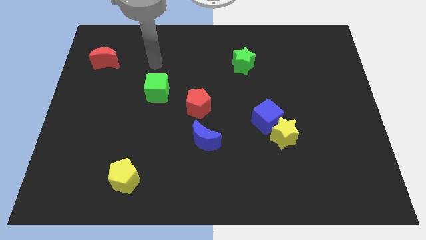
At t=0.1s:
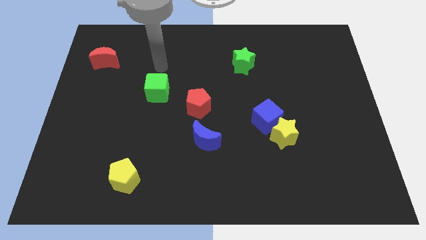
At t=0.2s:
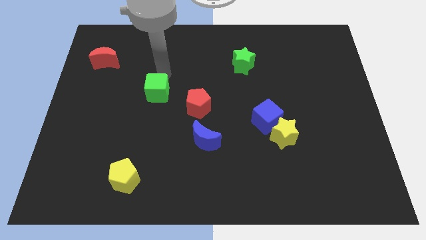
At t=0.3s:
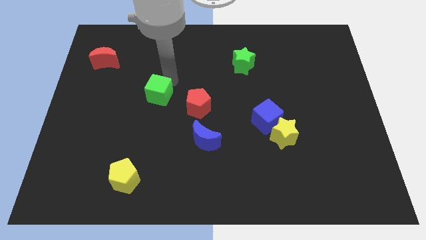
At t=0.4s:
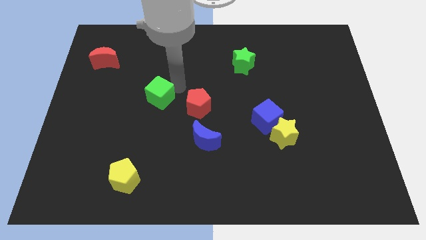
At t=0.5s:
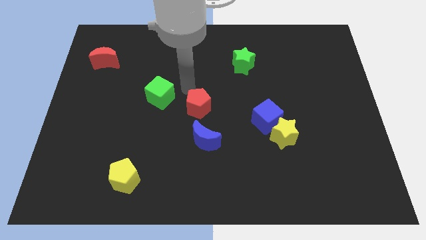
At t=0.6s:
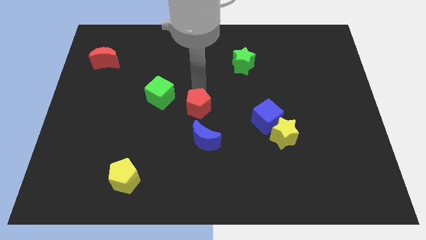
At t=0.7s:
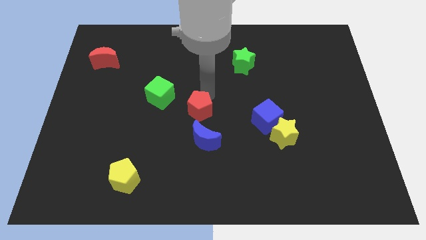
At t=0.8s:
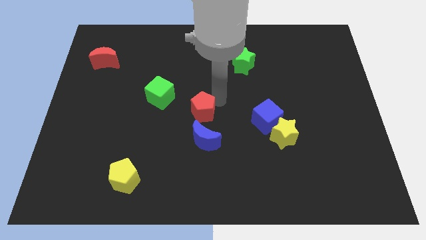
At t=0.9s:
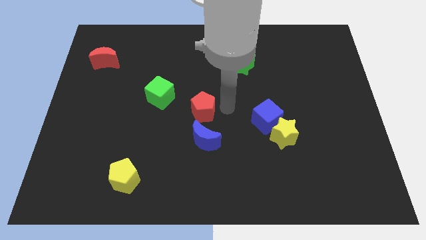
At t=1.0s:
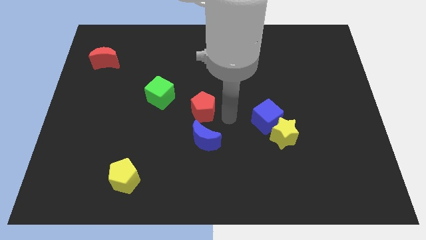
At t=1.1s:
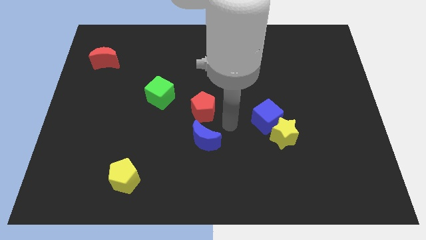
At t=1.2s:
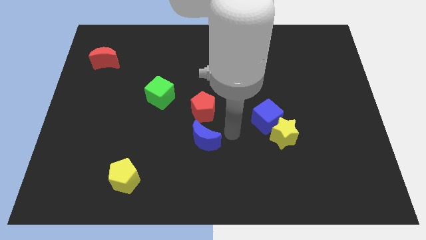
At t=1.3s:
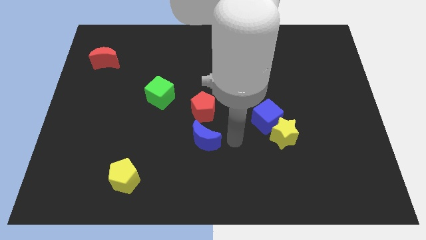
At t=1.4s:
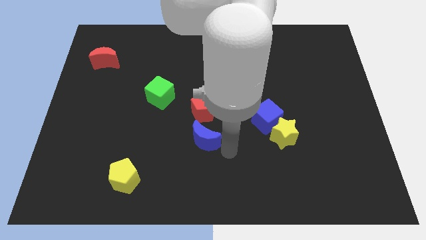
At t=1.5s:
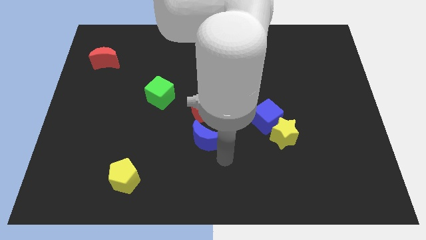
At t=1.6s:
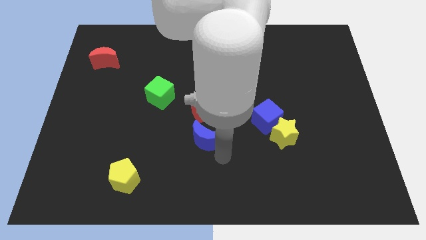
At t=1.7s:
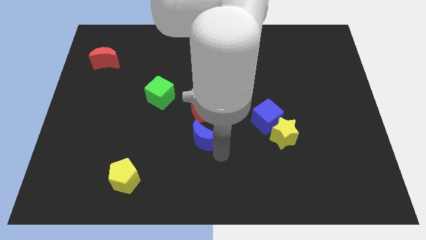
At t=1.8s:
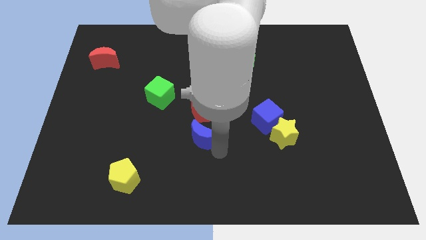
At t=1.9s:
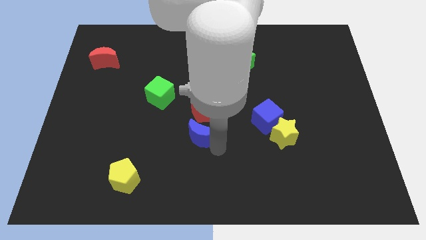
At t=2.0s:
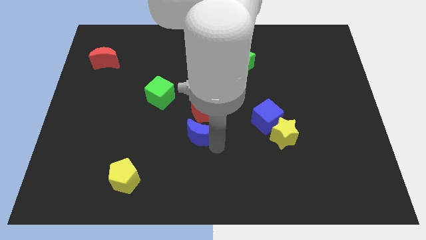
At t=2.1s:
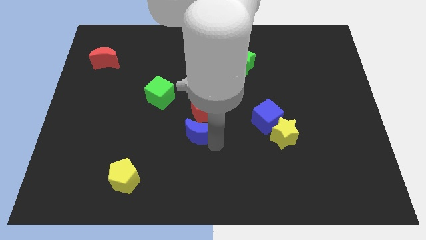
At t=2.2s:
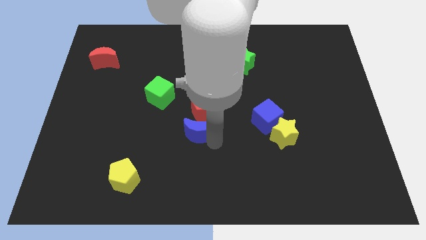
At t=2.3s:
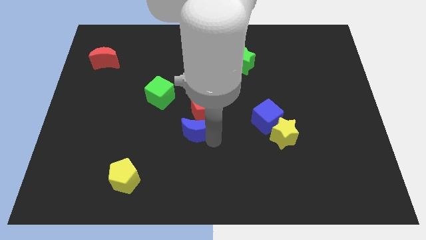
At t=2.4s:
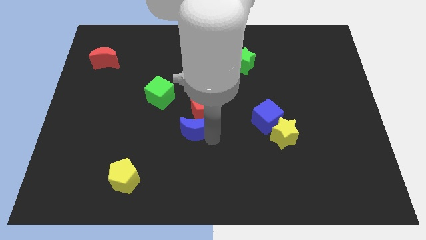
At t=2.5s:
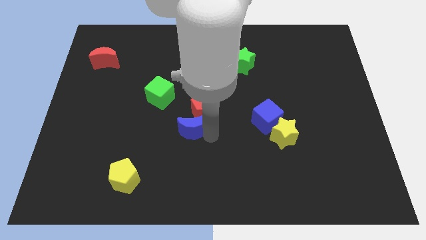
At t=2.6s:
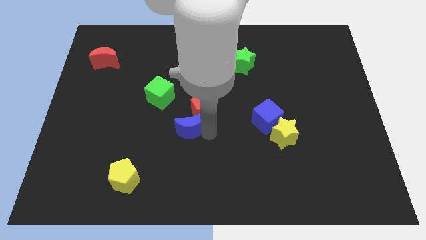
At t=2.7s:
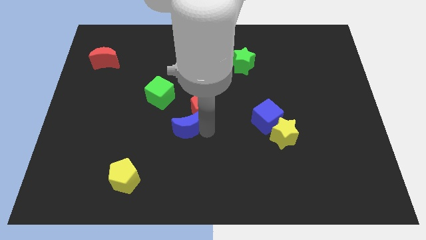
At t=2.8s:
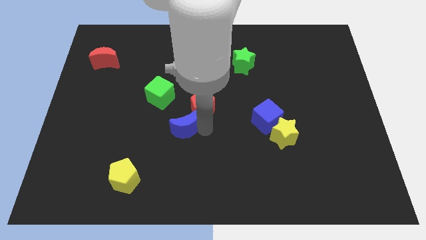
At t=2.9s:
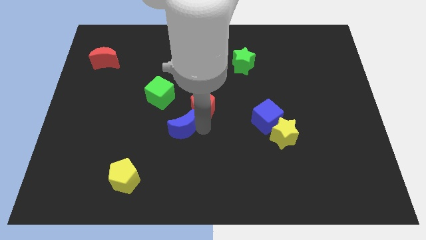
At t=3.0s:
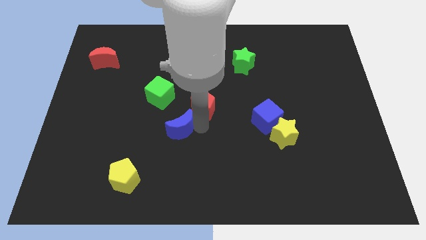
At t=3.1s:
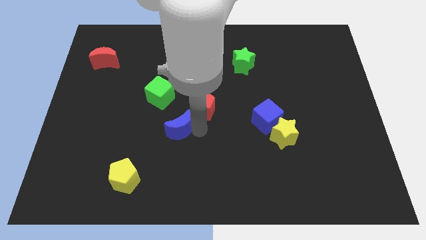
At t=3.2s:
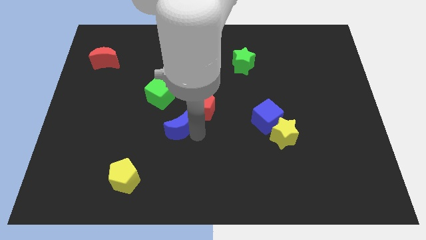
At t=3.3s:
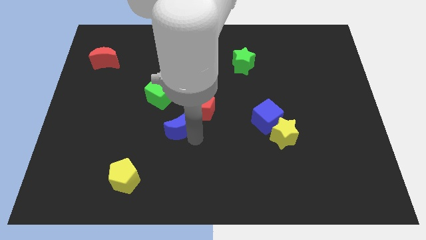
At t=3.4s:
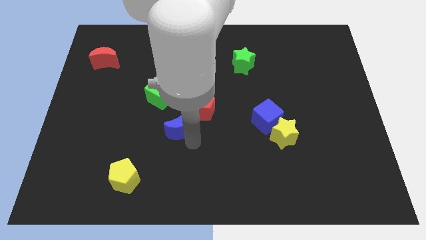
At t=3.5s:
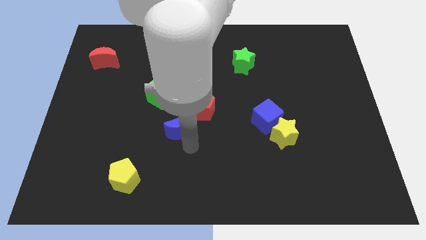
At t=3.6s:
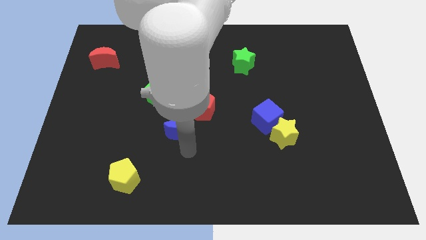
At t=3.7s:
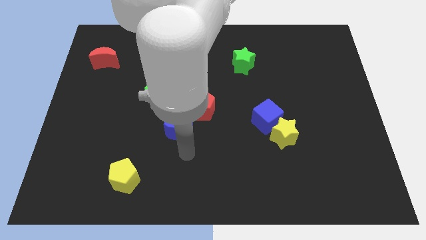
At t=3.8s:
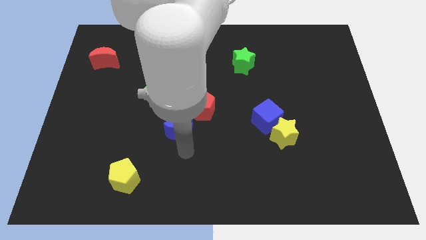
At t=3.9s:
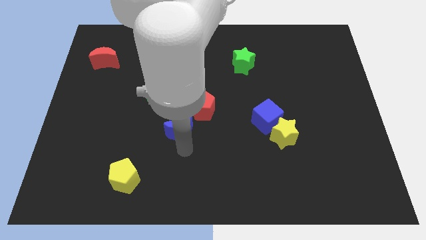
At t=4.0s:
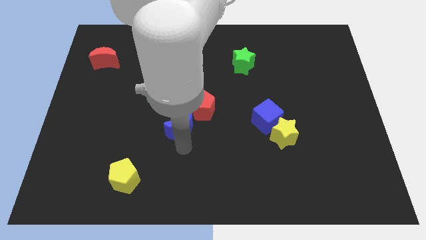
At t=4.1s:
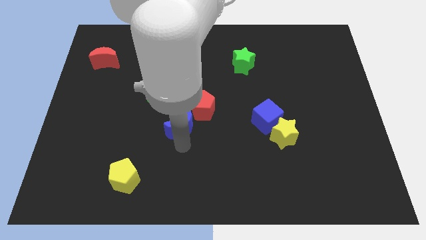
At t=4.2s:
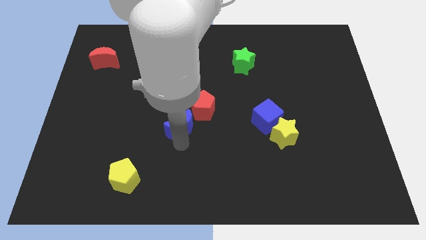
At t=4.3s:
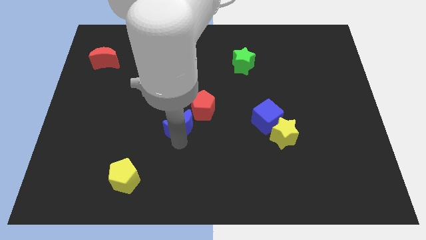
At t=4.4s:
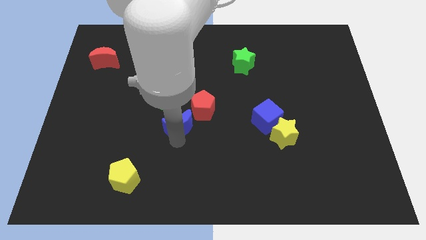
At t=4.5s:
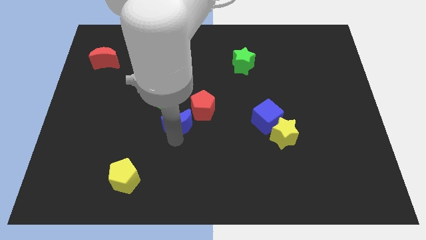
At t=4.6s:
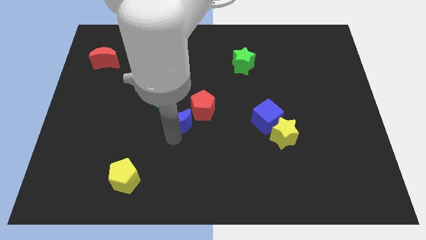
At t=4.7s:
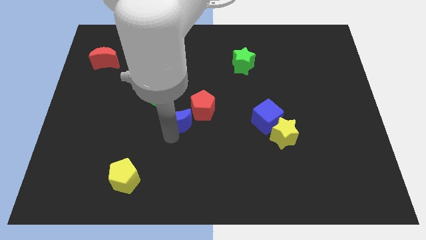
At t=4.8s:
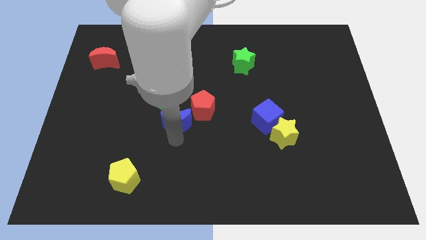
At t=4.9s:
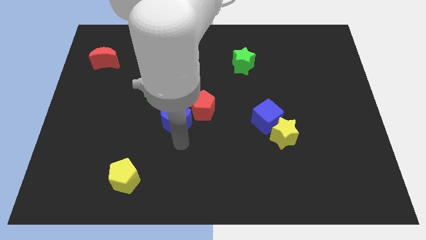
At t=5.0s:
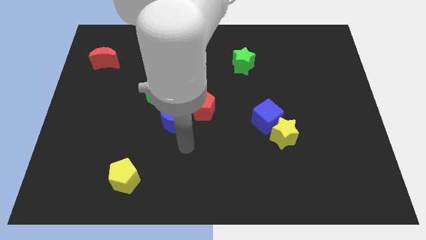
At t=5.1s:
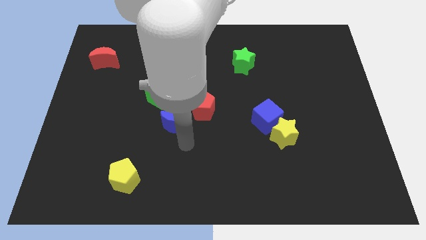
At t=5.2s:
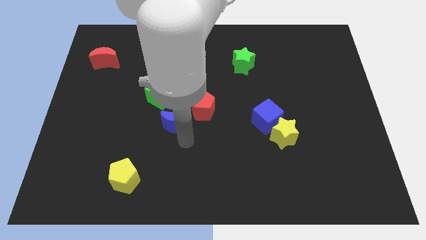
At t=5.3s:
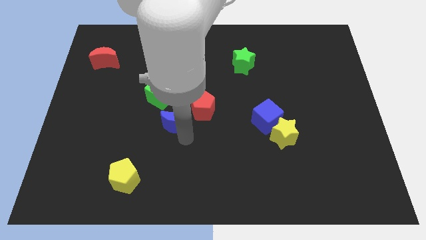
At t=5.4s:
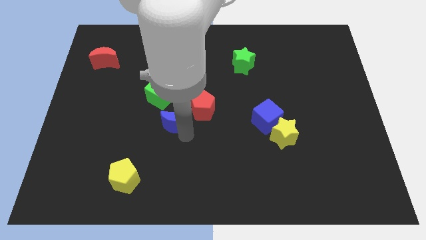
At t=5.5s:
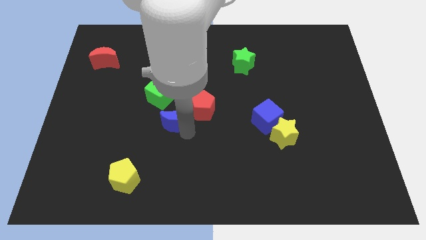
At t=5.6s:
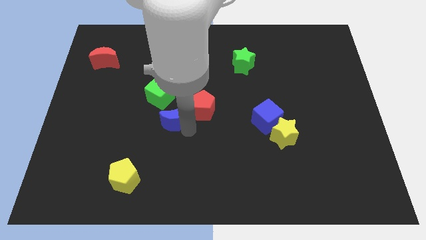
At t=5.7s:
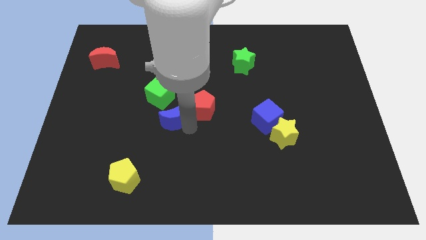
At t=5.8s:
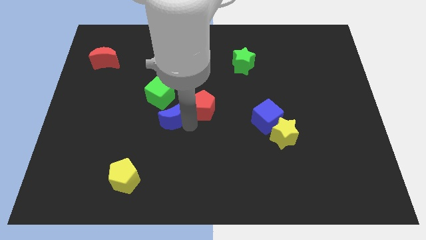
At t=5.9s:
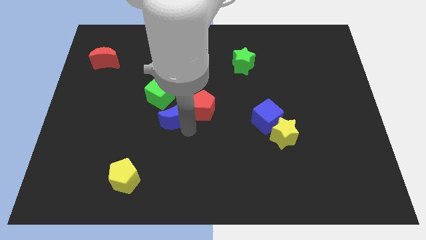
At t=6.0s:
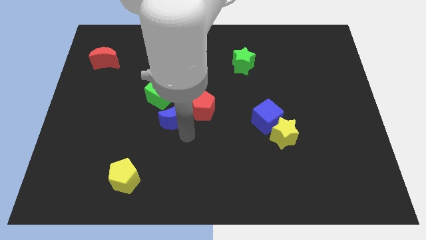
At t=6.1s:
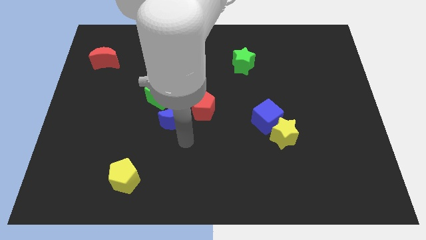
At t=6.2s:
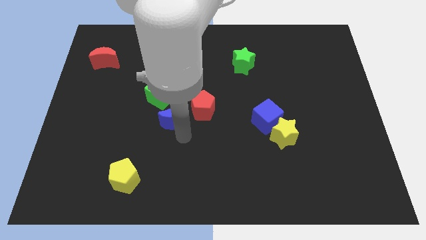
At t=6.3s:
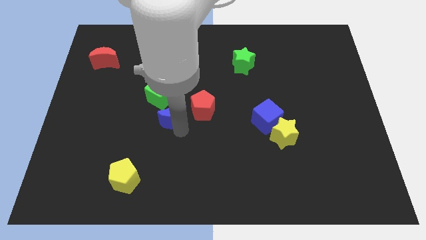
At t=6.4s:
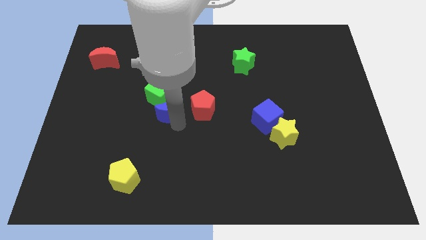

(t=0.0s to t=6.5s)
slide the blue moon next to the green cube
